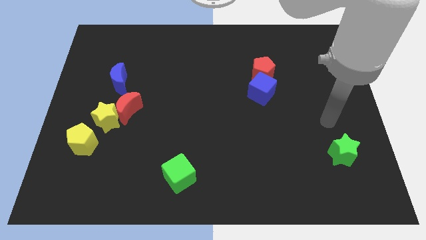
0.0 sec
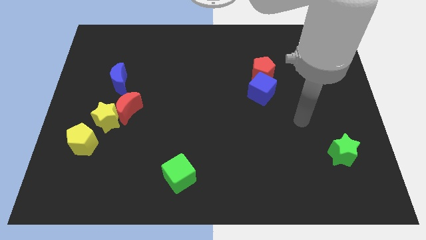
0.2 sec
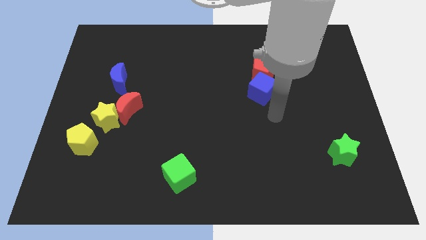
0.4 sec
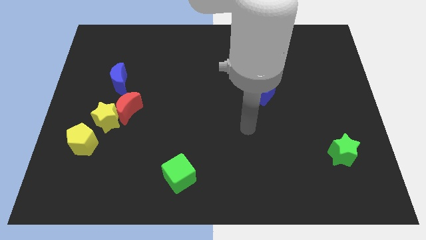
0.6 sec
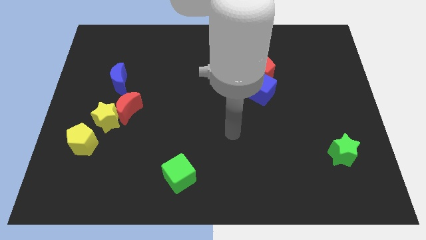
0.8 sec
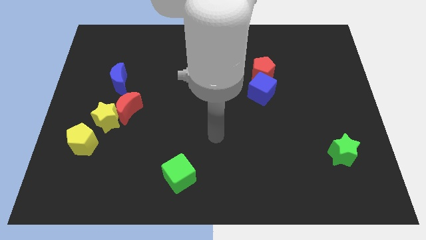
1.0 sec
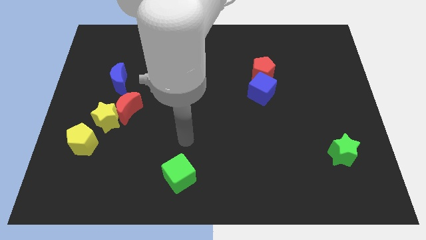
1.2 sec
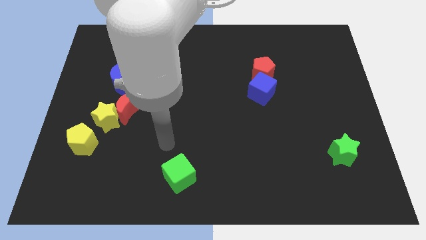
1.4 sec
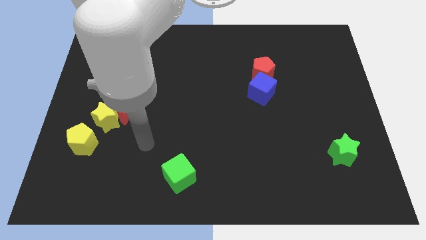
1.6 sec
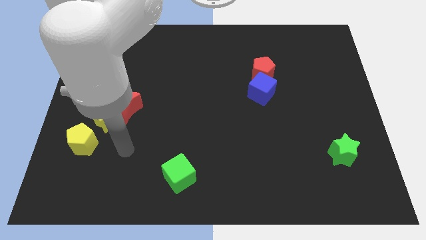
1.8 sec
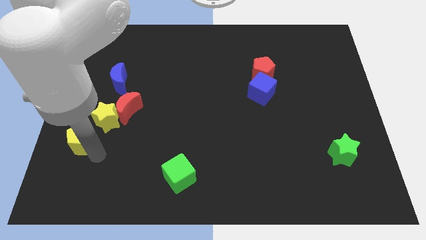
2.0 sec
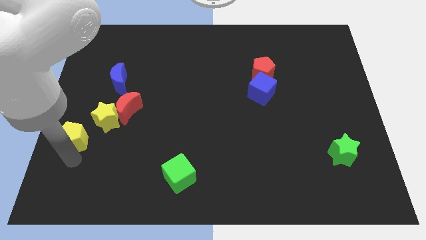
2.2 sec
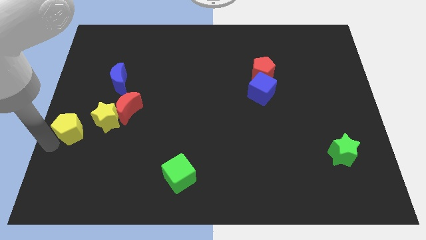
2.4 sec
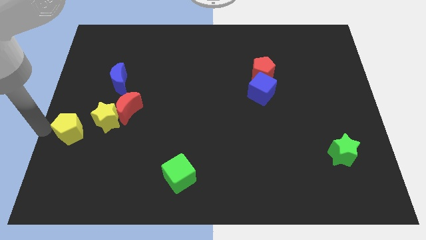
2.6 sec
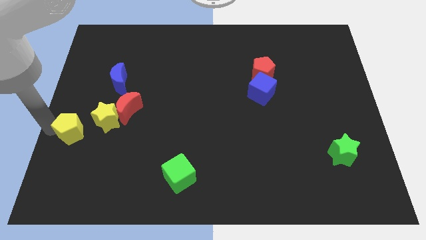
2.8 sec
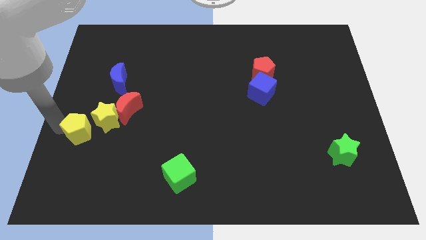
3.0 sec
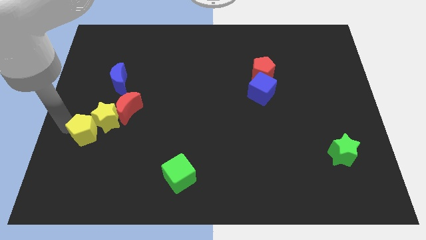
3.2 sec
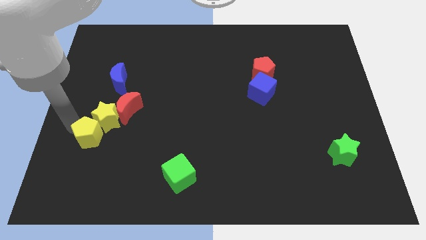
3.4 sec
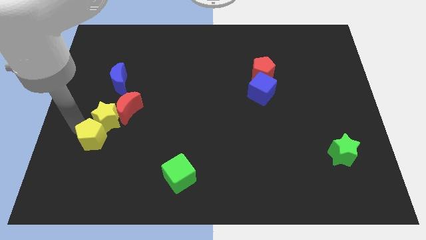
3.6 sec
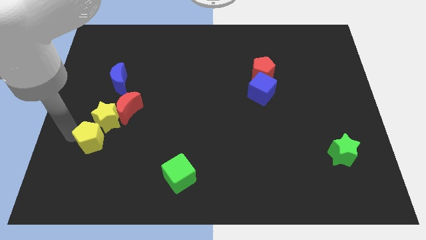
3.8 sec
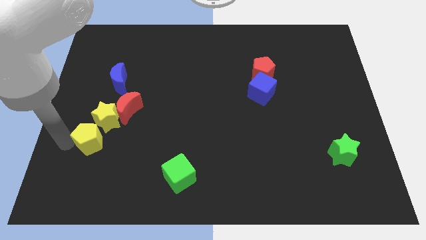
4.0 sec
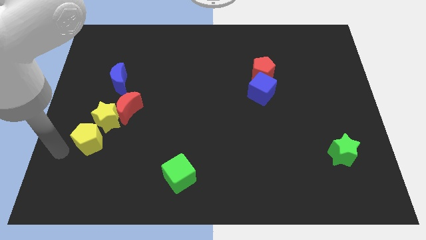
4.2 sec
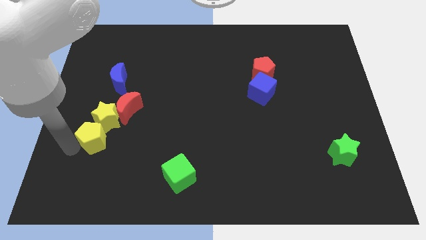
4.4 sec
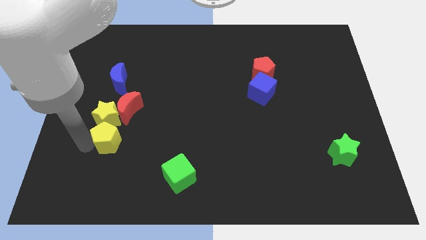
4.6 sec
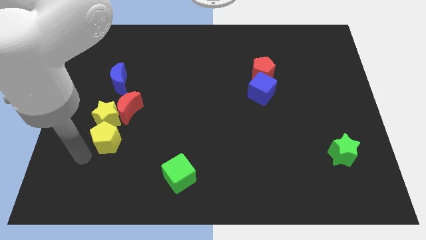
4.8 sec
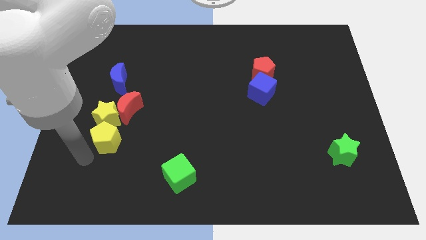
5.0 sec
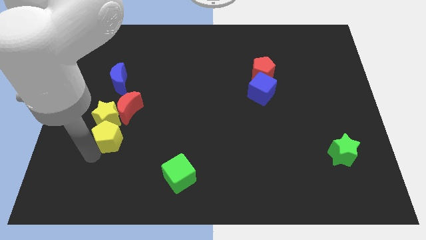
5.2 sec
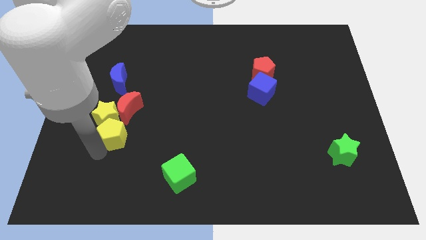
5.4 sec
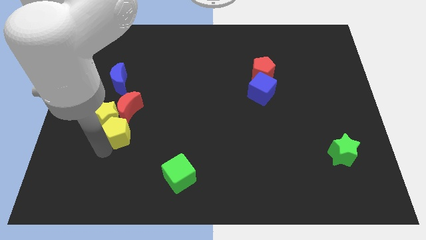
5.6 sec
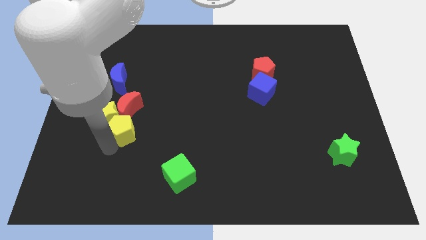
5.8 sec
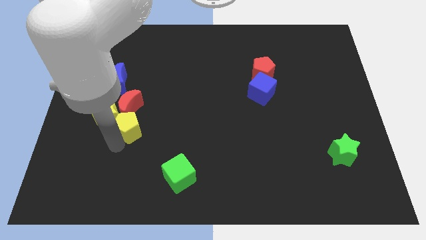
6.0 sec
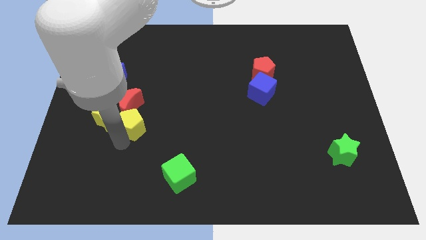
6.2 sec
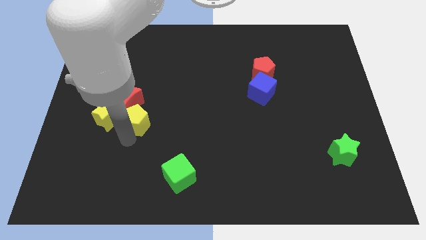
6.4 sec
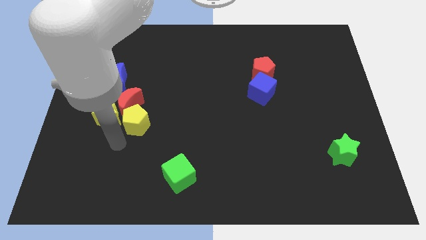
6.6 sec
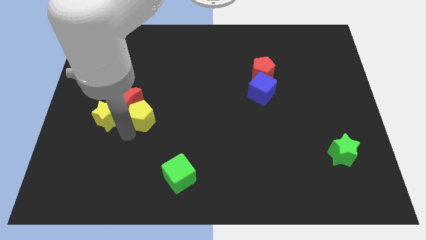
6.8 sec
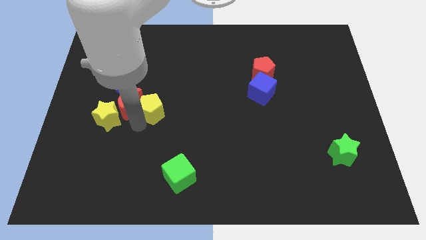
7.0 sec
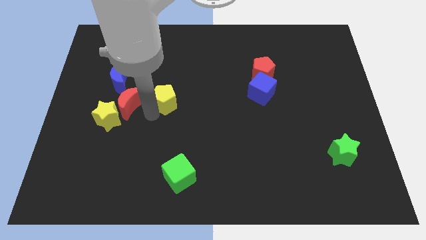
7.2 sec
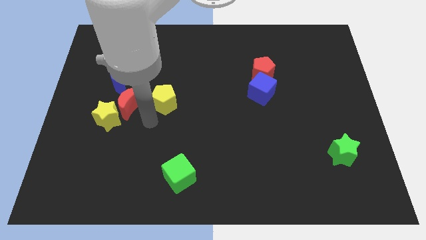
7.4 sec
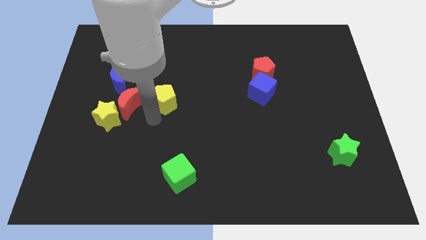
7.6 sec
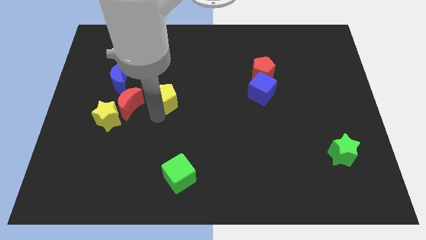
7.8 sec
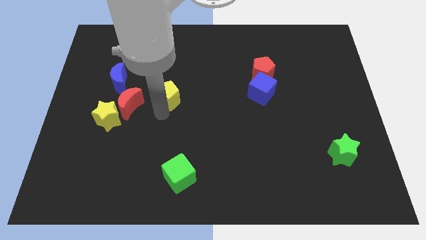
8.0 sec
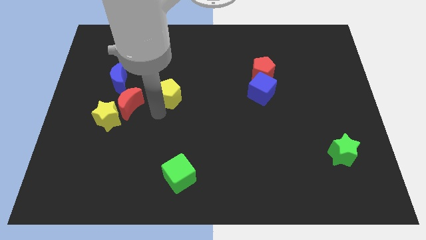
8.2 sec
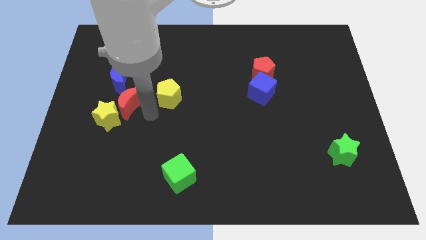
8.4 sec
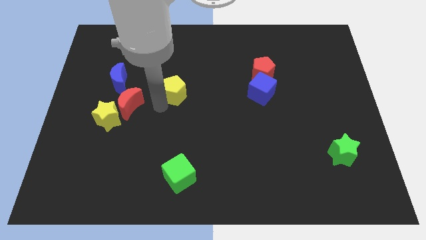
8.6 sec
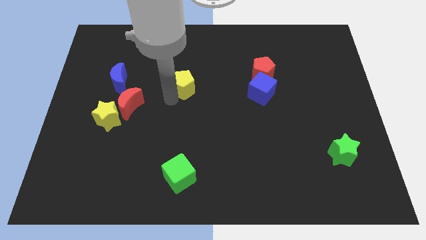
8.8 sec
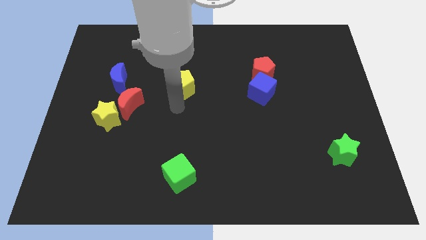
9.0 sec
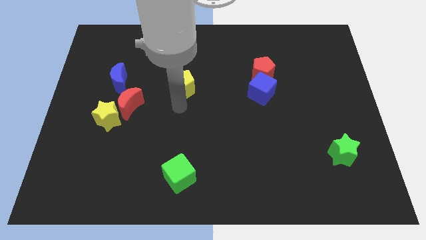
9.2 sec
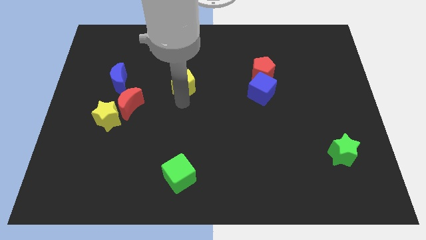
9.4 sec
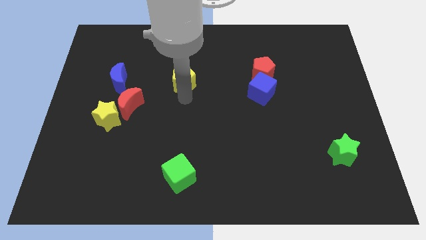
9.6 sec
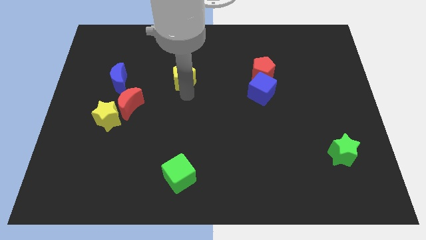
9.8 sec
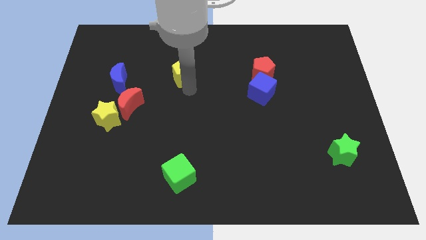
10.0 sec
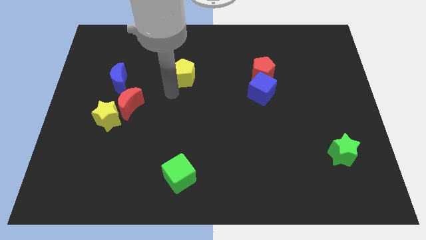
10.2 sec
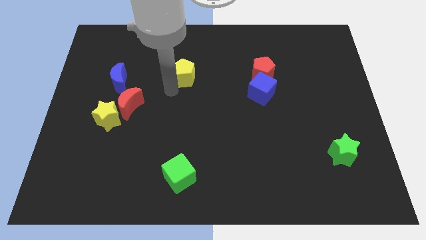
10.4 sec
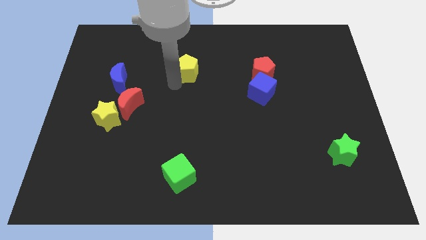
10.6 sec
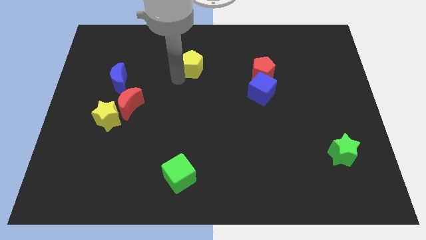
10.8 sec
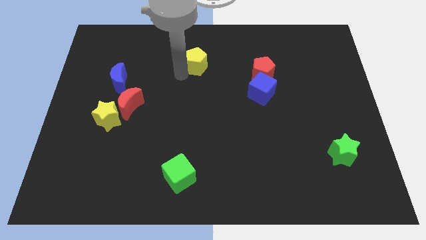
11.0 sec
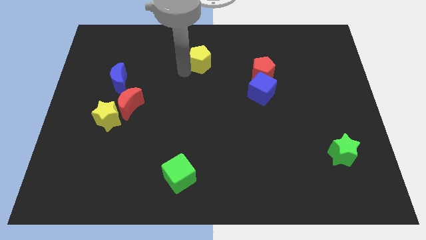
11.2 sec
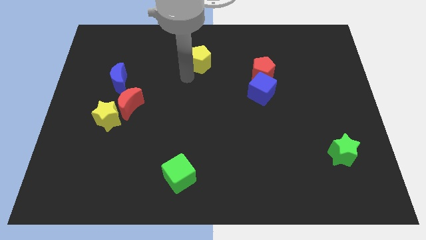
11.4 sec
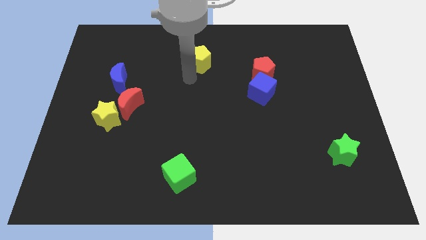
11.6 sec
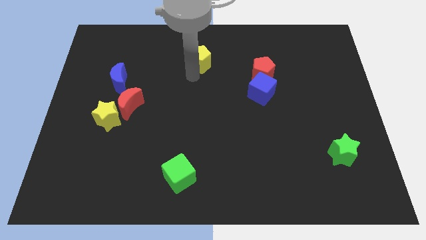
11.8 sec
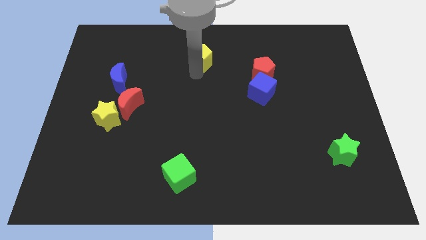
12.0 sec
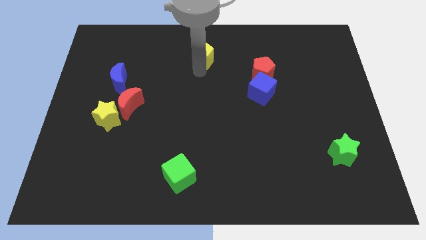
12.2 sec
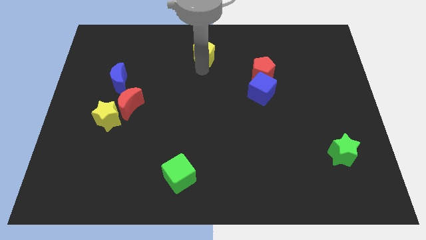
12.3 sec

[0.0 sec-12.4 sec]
put the yellow pentagon to the top

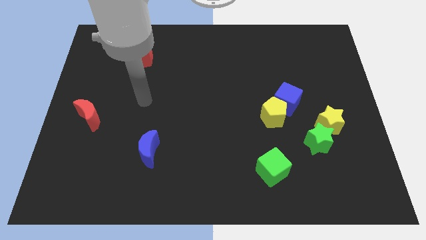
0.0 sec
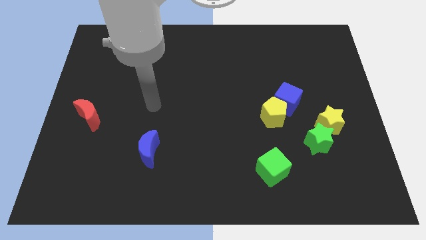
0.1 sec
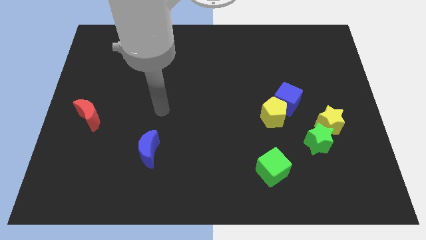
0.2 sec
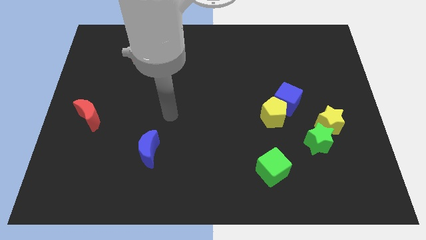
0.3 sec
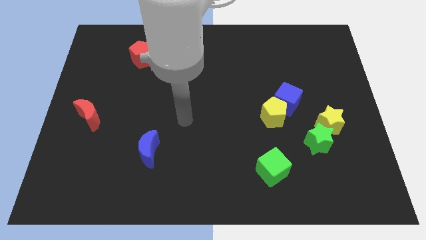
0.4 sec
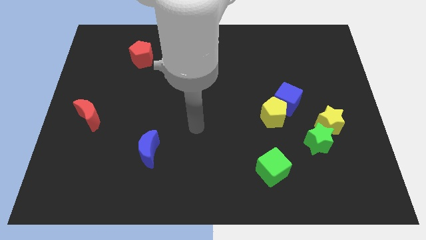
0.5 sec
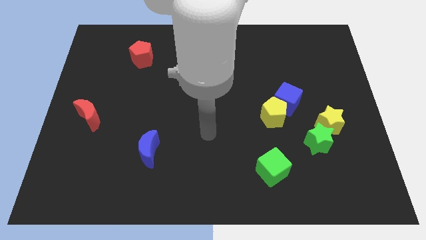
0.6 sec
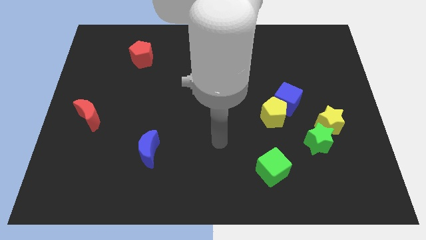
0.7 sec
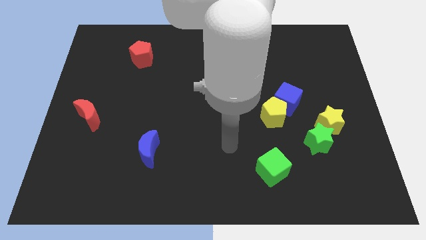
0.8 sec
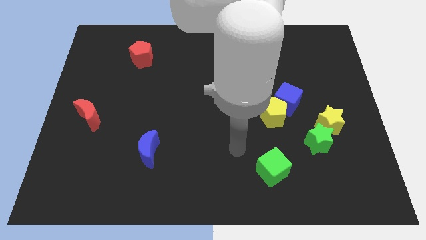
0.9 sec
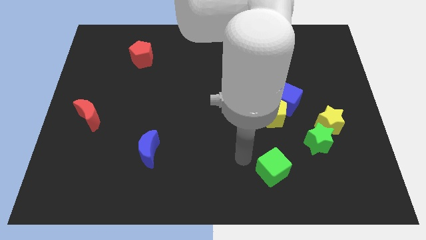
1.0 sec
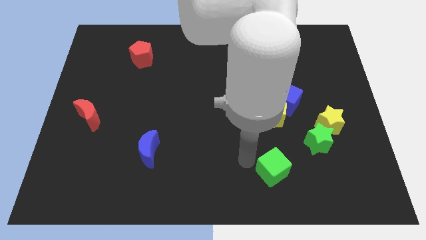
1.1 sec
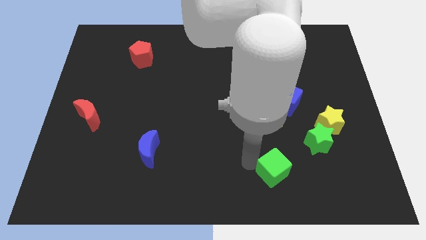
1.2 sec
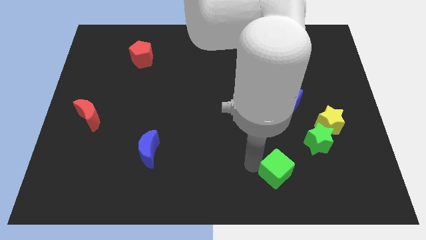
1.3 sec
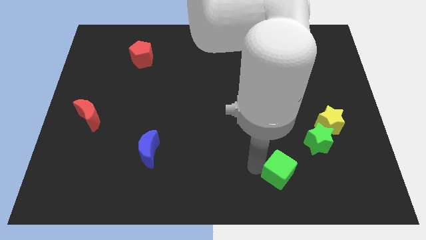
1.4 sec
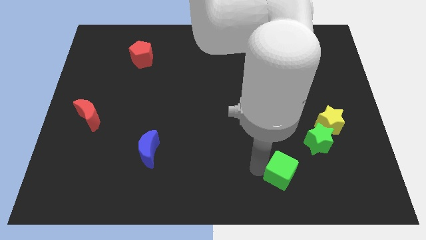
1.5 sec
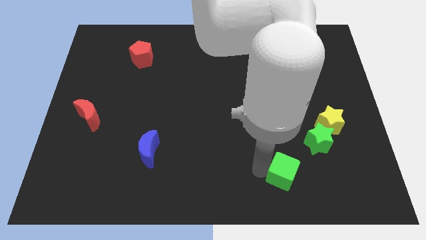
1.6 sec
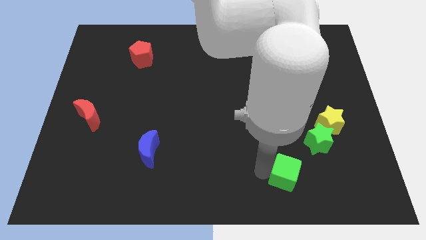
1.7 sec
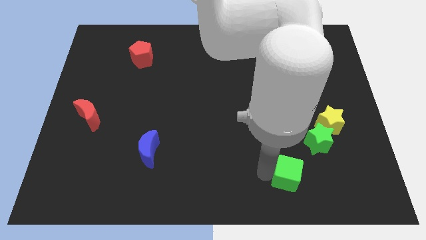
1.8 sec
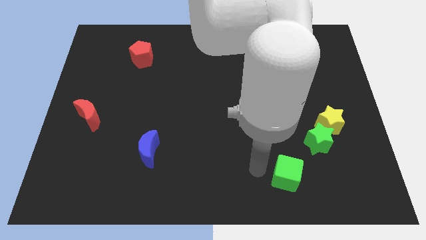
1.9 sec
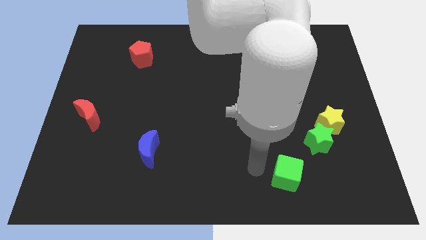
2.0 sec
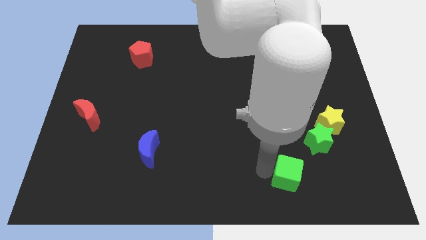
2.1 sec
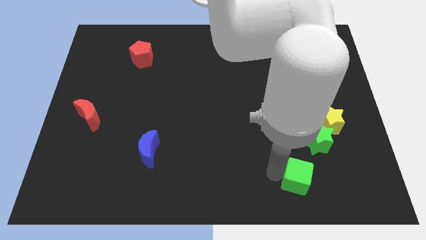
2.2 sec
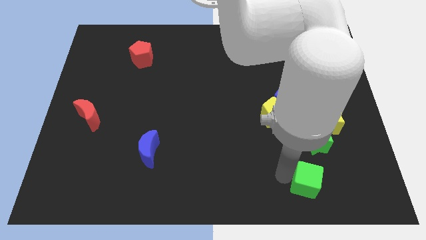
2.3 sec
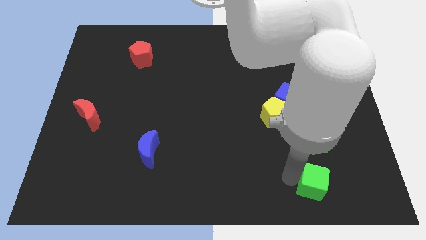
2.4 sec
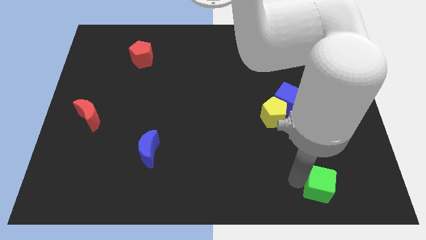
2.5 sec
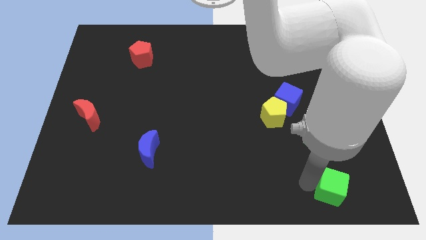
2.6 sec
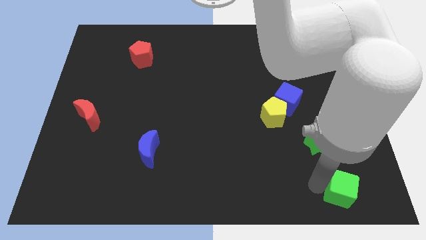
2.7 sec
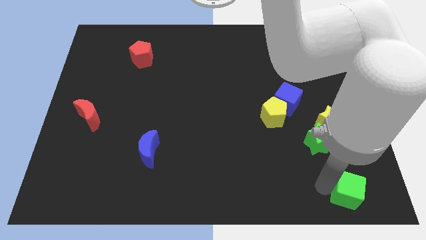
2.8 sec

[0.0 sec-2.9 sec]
put the green cube to the bottom right corner
